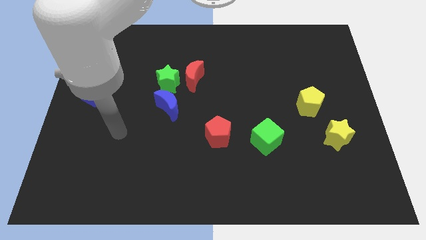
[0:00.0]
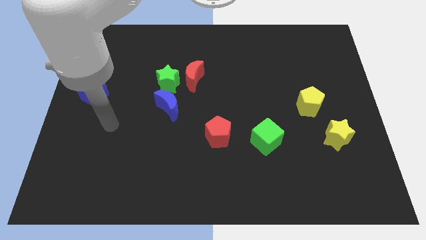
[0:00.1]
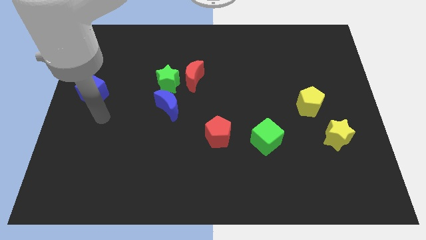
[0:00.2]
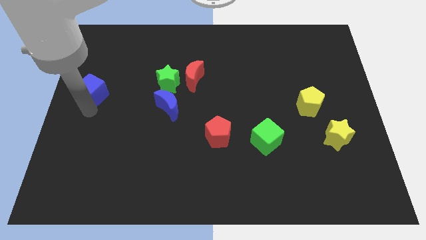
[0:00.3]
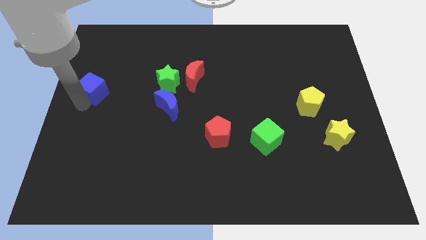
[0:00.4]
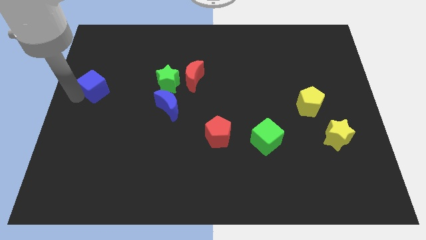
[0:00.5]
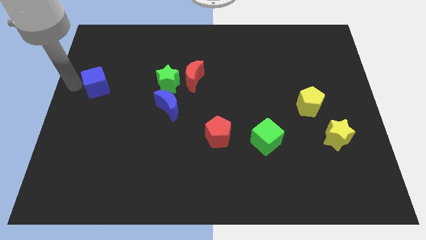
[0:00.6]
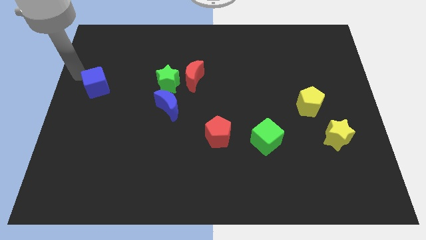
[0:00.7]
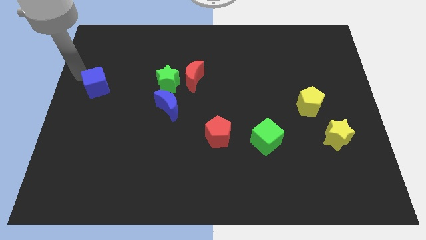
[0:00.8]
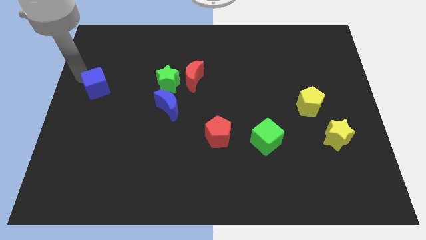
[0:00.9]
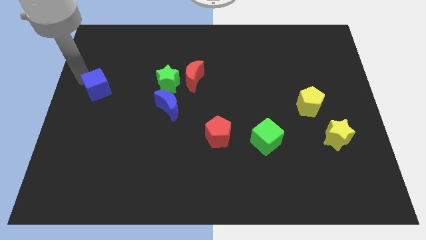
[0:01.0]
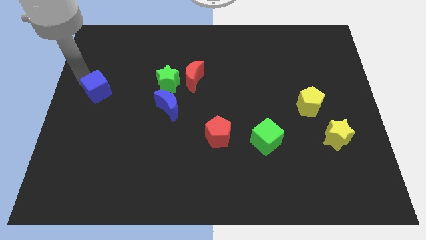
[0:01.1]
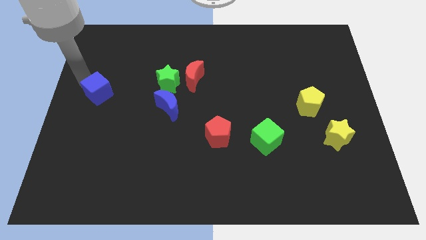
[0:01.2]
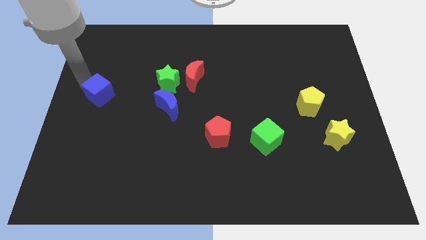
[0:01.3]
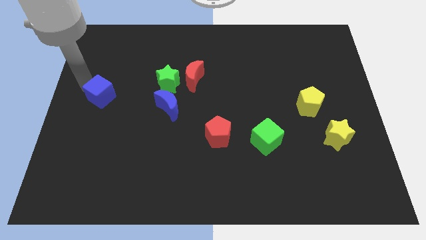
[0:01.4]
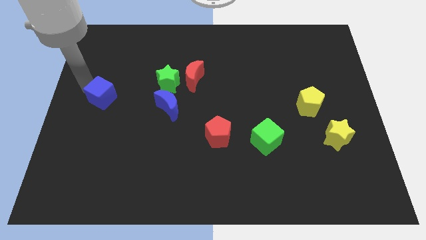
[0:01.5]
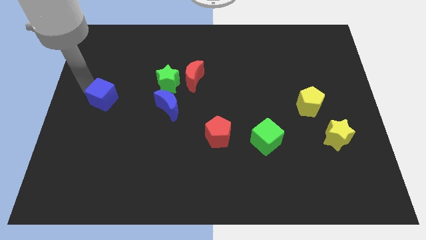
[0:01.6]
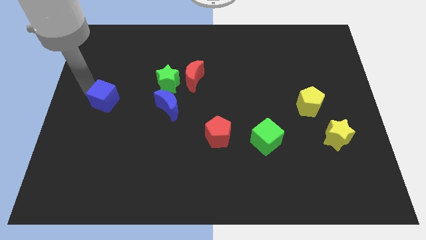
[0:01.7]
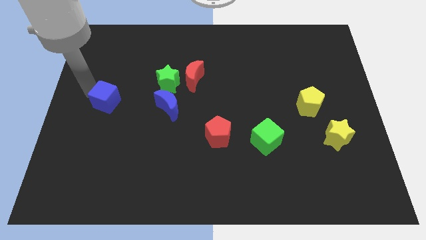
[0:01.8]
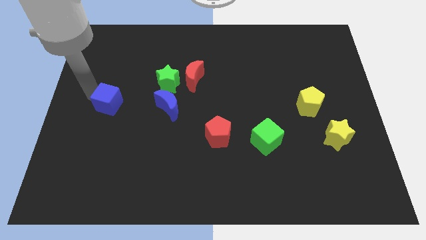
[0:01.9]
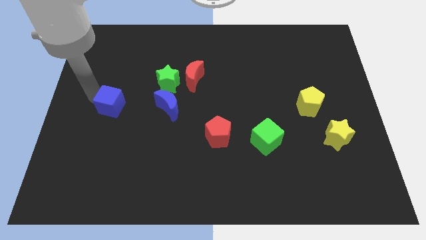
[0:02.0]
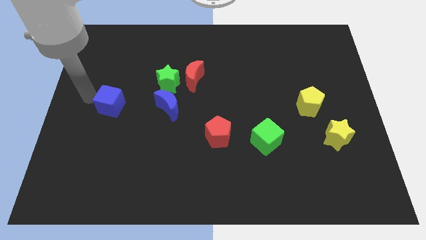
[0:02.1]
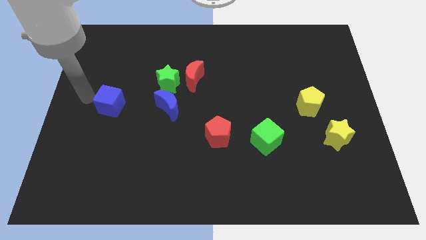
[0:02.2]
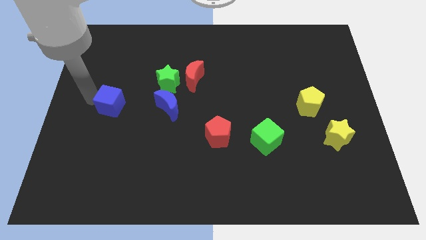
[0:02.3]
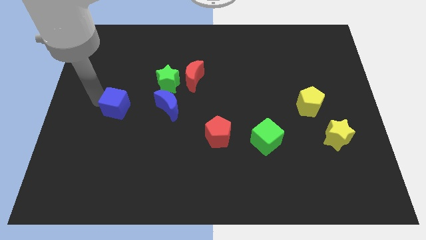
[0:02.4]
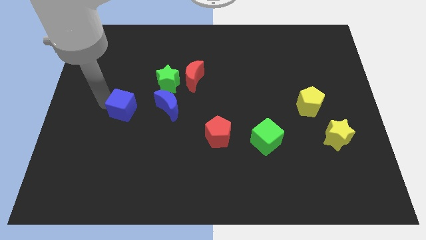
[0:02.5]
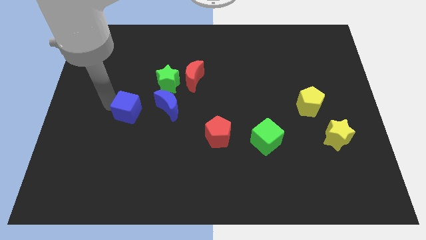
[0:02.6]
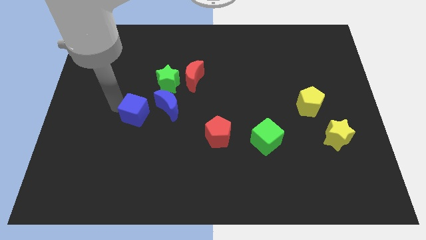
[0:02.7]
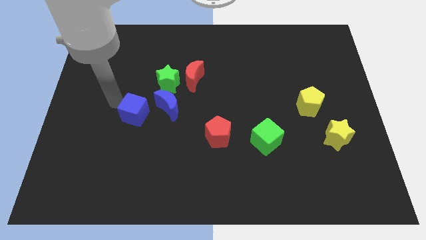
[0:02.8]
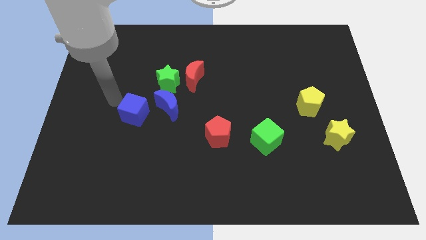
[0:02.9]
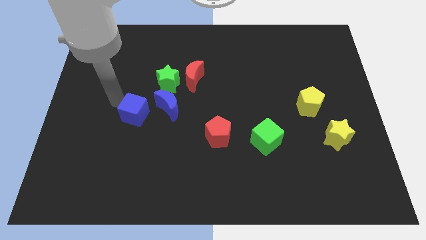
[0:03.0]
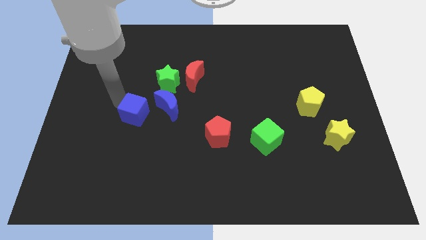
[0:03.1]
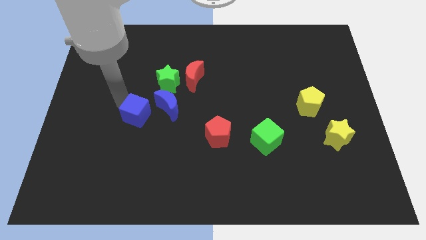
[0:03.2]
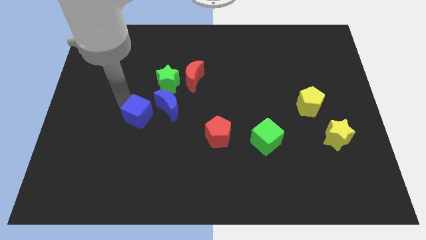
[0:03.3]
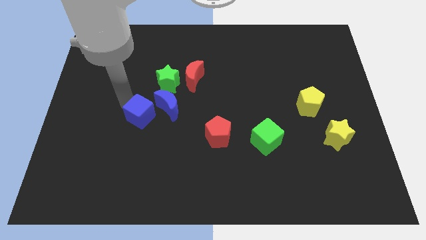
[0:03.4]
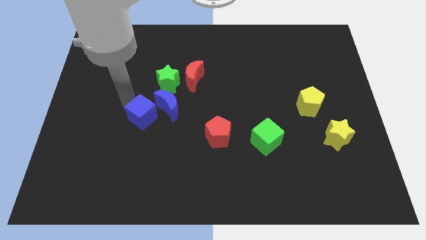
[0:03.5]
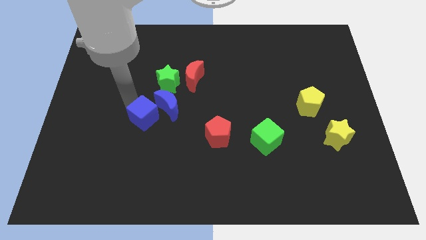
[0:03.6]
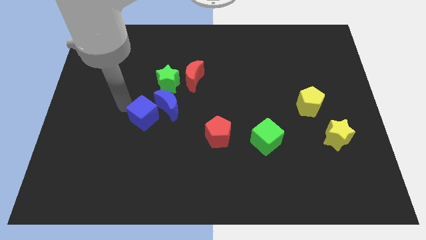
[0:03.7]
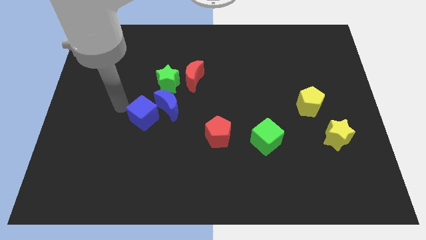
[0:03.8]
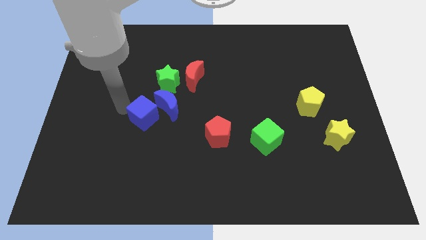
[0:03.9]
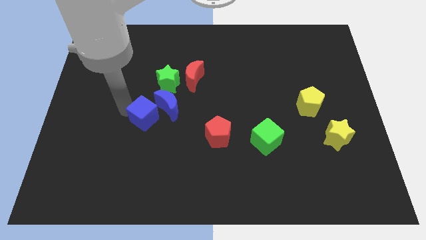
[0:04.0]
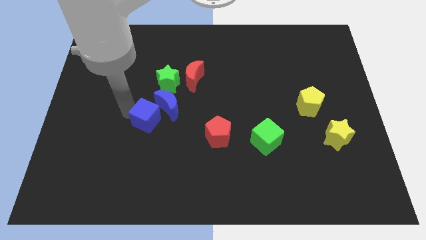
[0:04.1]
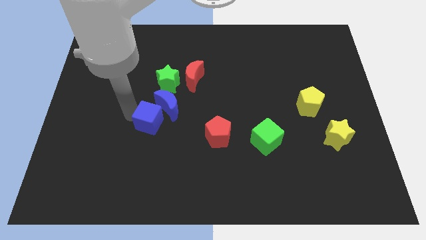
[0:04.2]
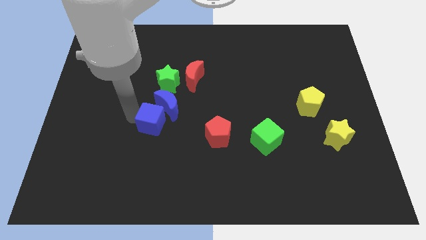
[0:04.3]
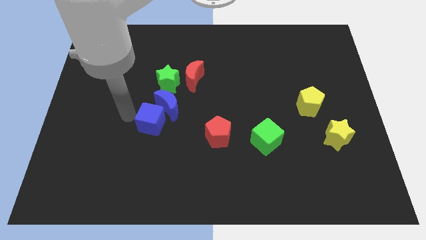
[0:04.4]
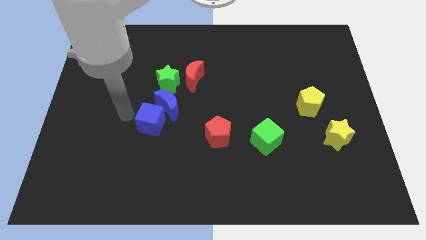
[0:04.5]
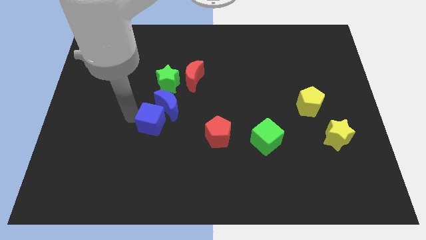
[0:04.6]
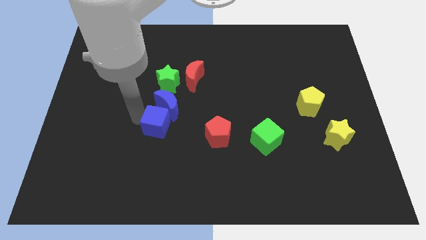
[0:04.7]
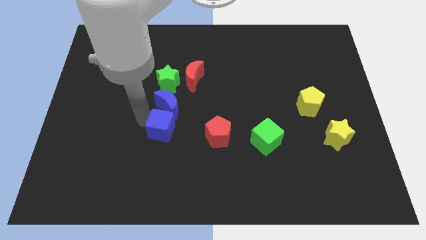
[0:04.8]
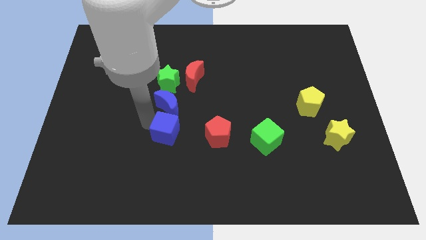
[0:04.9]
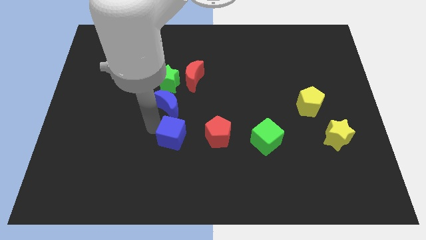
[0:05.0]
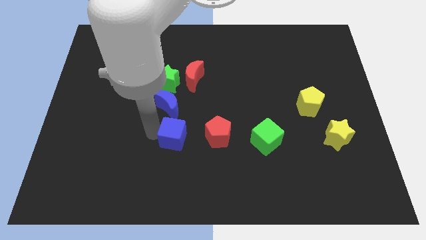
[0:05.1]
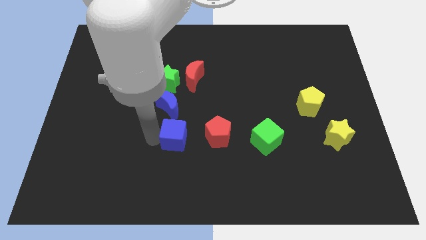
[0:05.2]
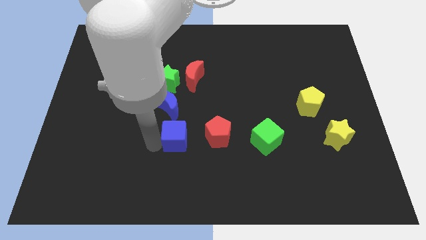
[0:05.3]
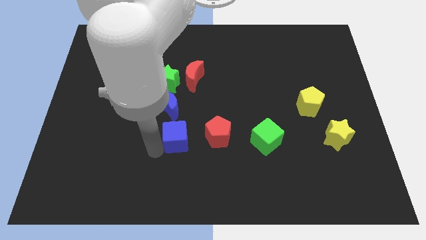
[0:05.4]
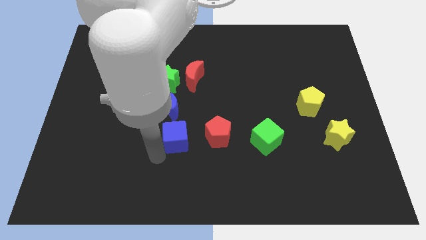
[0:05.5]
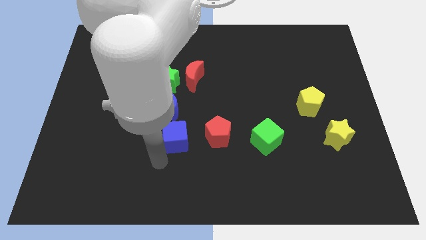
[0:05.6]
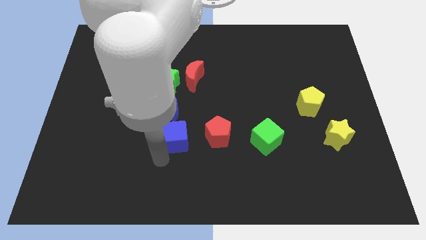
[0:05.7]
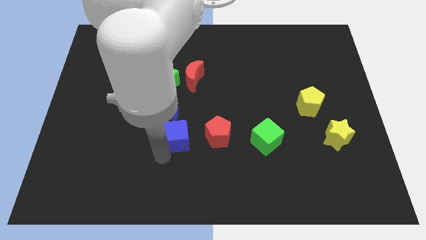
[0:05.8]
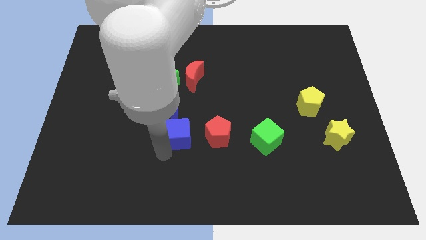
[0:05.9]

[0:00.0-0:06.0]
move the blue cube to the middle of the board

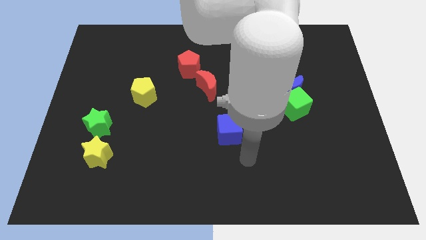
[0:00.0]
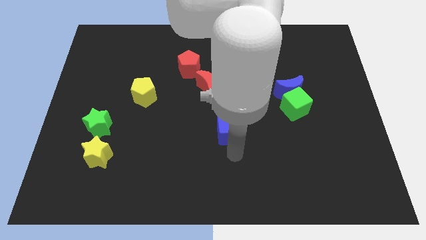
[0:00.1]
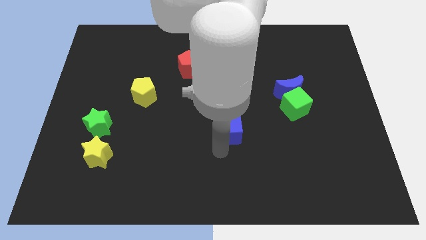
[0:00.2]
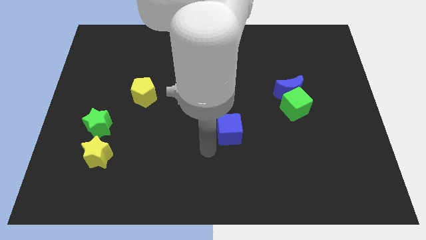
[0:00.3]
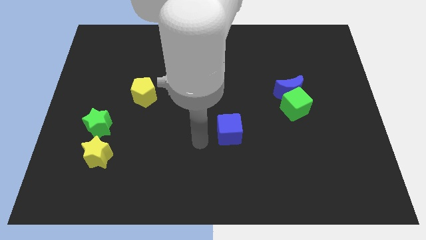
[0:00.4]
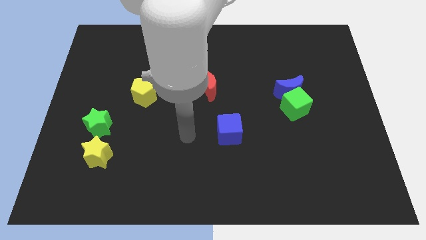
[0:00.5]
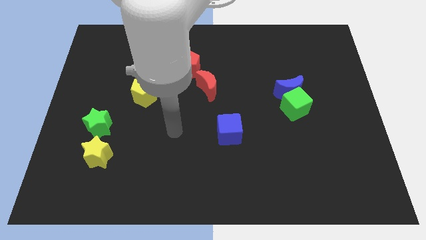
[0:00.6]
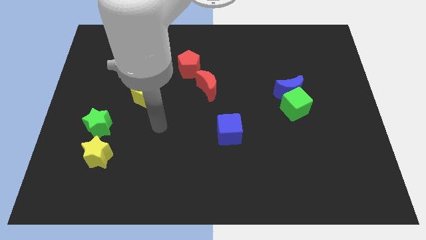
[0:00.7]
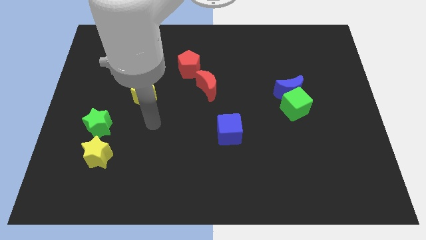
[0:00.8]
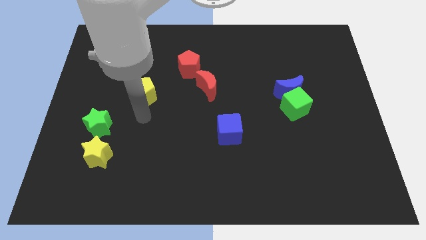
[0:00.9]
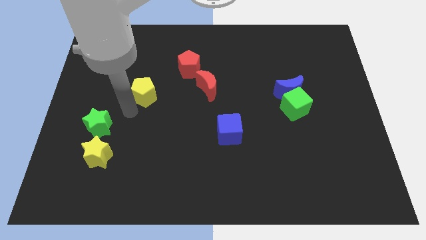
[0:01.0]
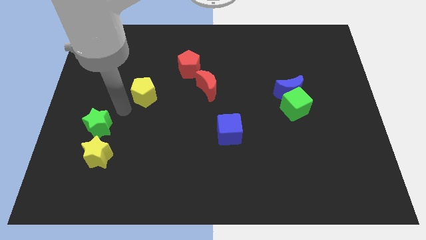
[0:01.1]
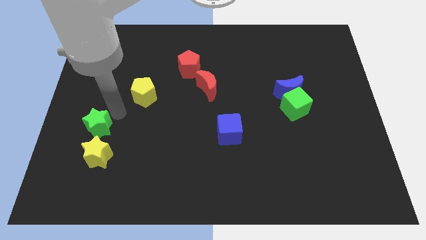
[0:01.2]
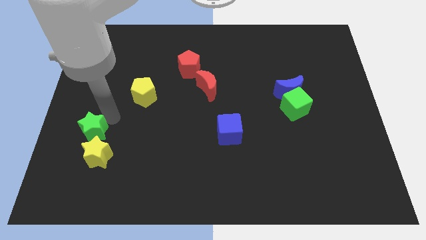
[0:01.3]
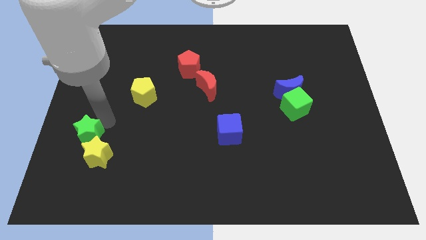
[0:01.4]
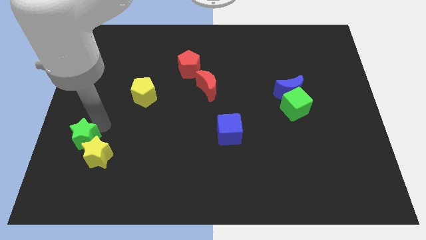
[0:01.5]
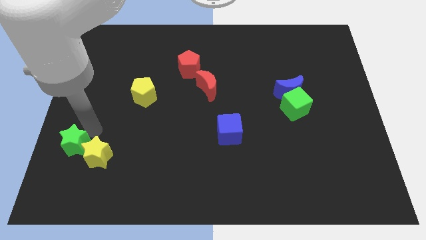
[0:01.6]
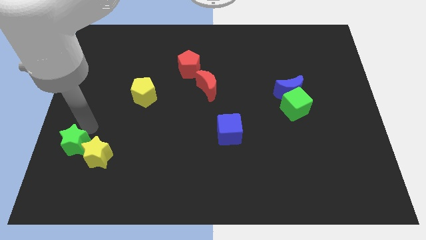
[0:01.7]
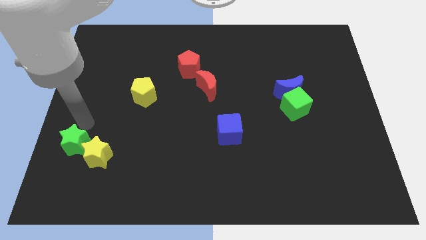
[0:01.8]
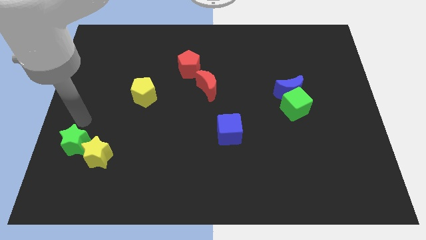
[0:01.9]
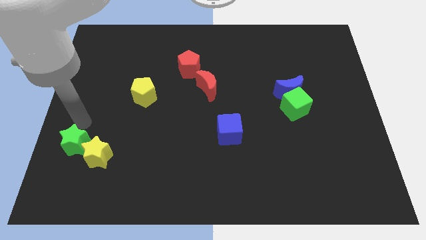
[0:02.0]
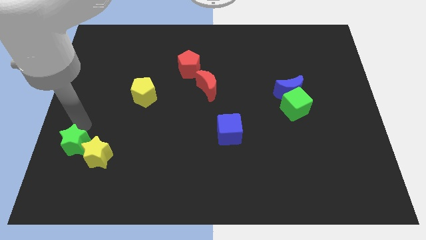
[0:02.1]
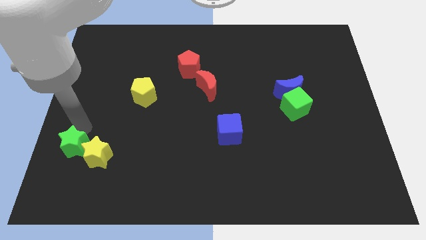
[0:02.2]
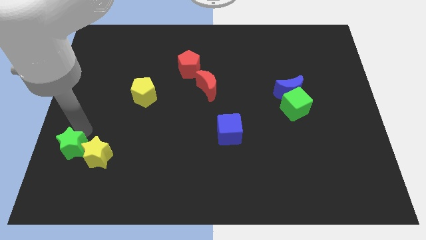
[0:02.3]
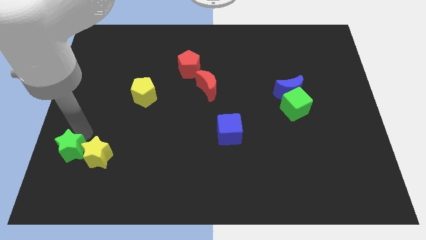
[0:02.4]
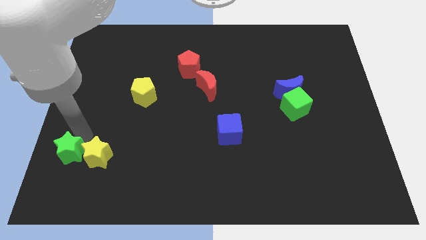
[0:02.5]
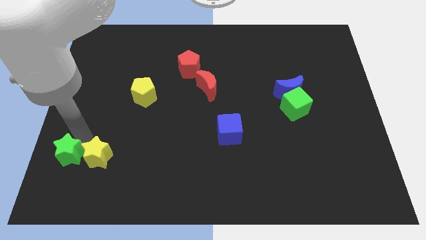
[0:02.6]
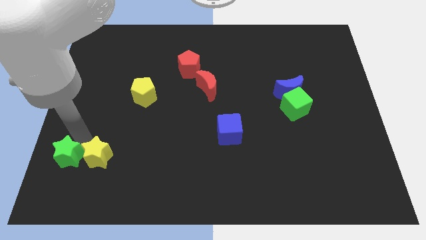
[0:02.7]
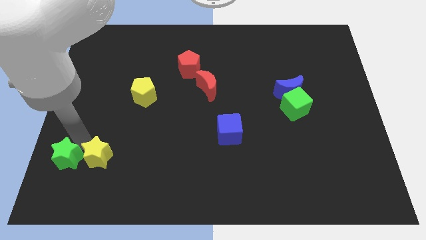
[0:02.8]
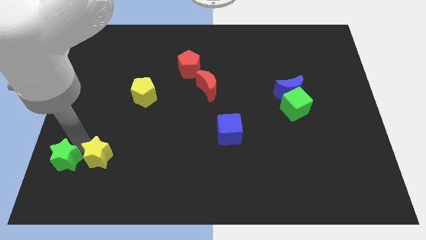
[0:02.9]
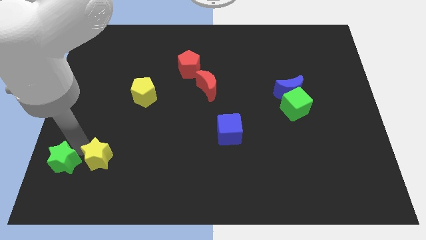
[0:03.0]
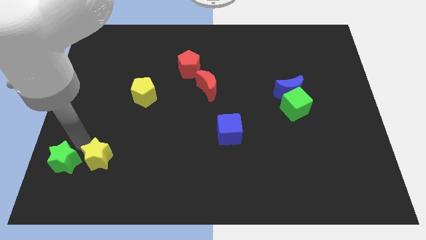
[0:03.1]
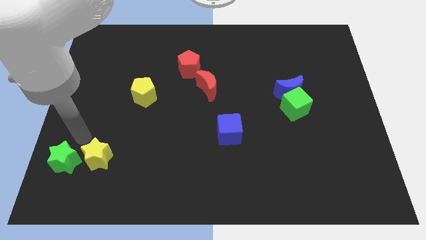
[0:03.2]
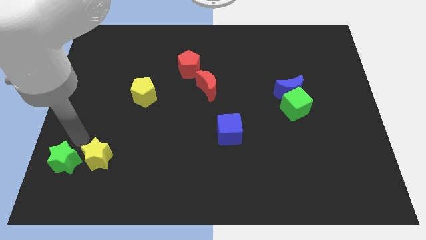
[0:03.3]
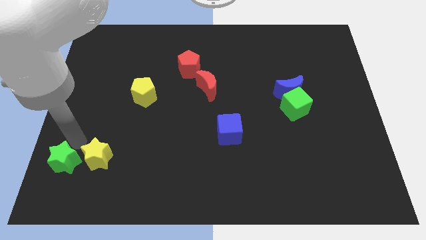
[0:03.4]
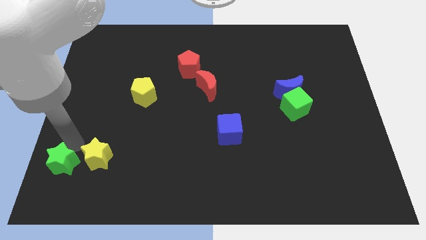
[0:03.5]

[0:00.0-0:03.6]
move the green star to the bottom left corner
